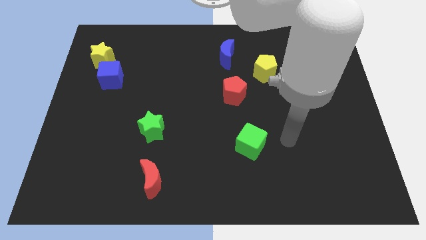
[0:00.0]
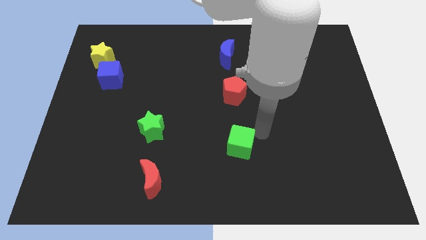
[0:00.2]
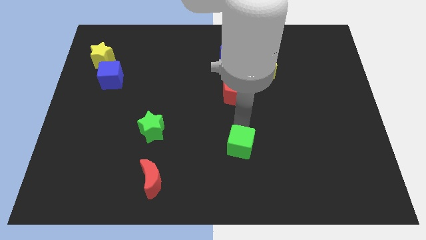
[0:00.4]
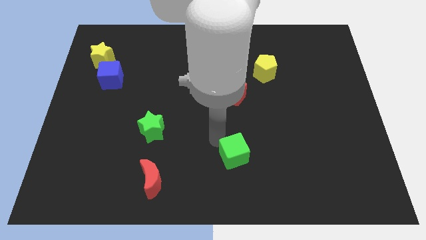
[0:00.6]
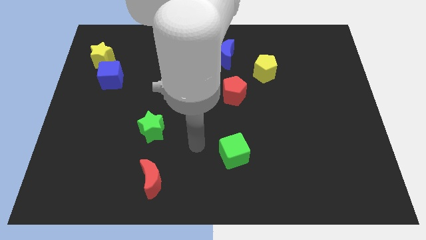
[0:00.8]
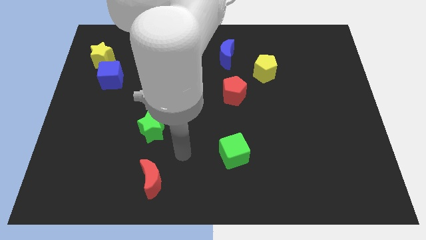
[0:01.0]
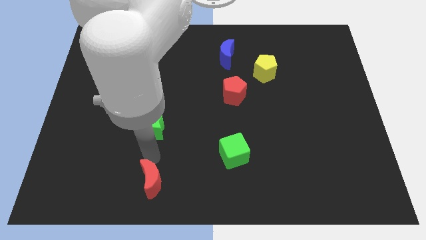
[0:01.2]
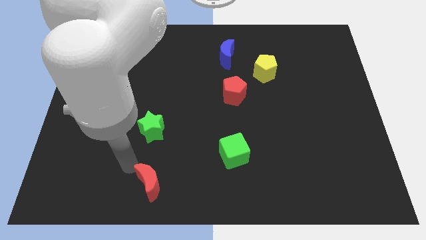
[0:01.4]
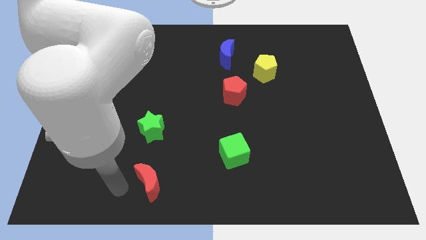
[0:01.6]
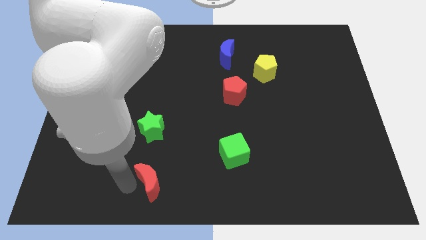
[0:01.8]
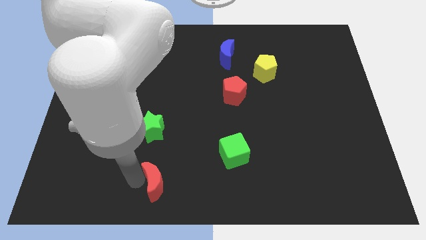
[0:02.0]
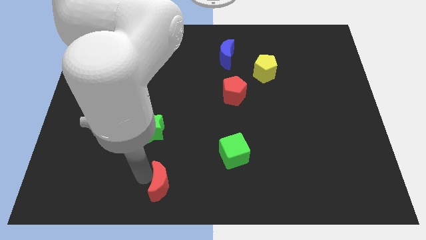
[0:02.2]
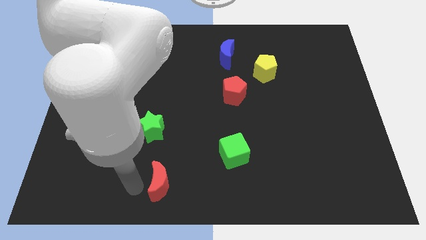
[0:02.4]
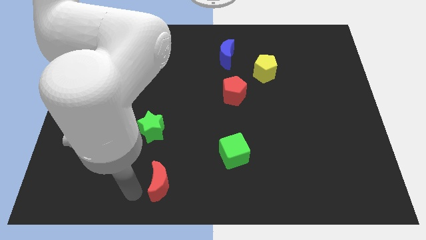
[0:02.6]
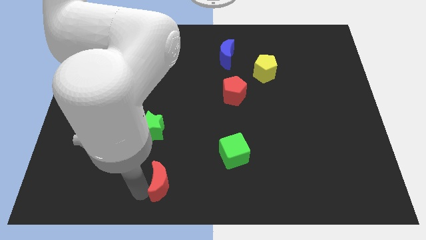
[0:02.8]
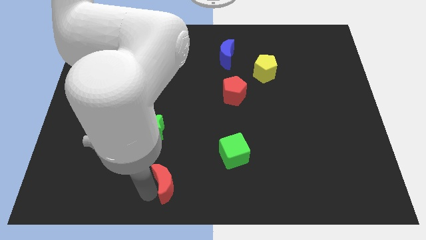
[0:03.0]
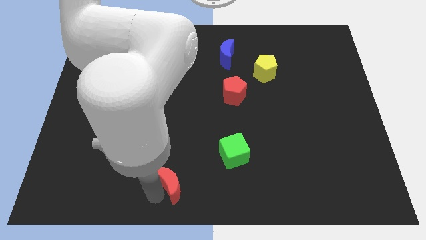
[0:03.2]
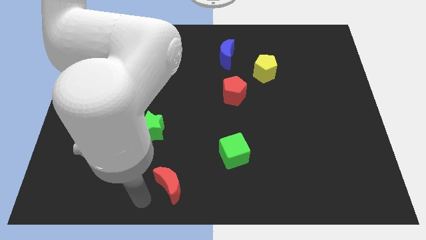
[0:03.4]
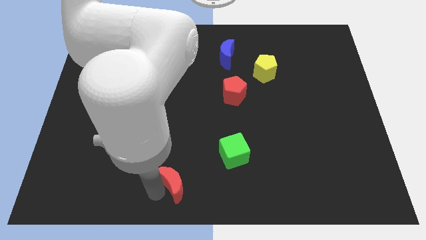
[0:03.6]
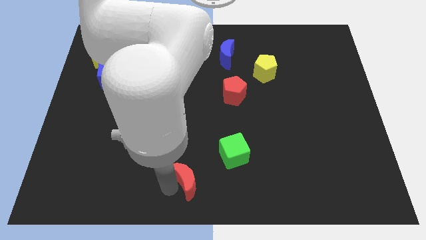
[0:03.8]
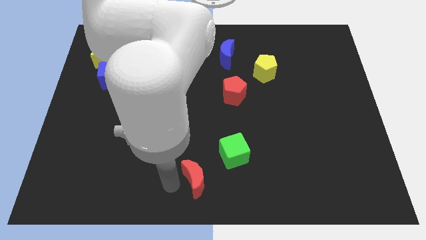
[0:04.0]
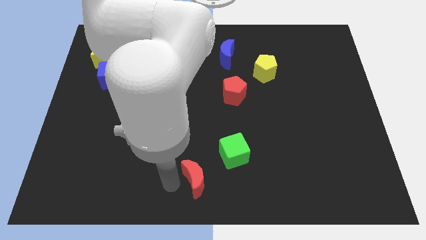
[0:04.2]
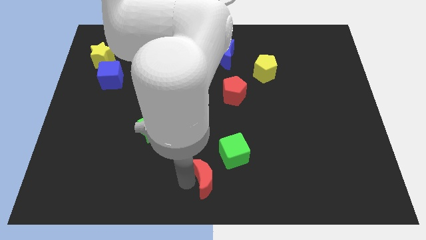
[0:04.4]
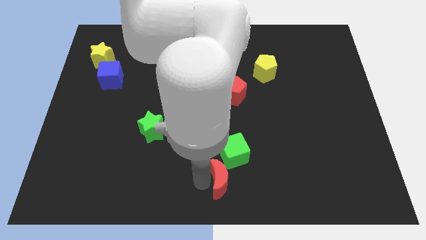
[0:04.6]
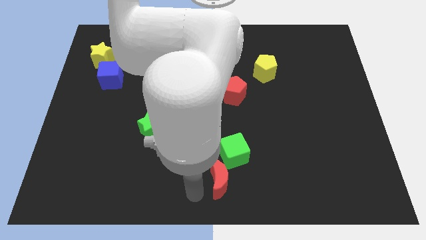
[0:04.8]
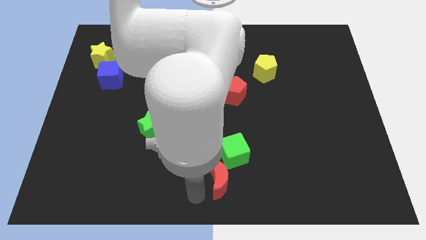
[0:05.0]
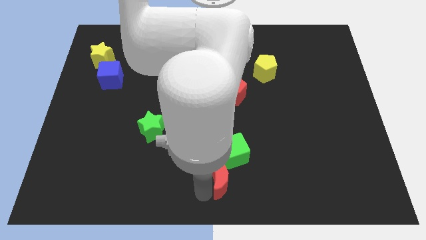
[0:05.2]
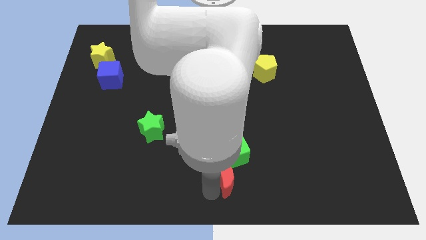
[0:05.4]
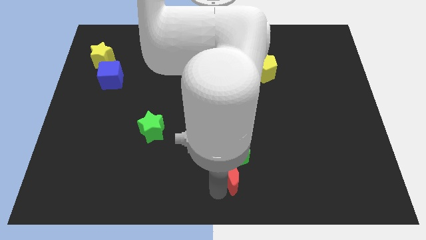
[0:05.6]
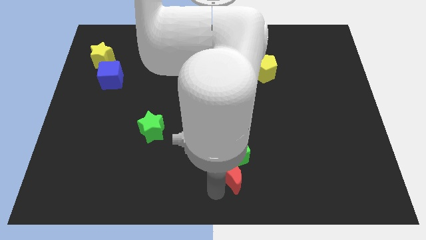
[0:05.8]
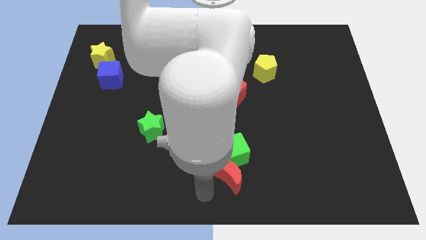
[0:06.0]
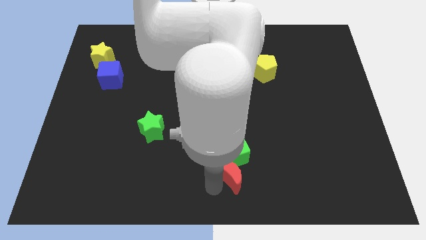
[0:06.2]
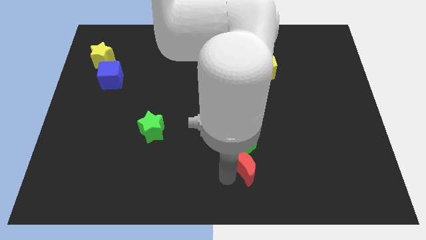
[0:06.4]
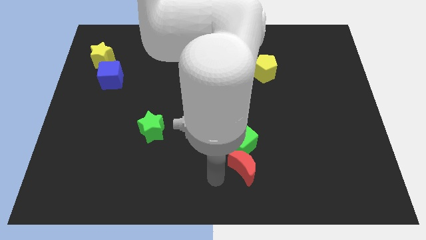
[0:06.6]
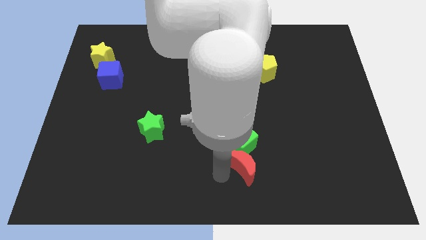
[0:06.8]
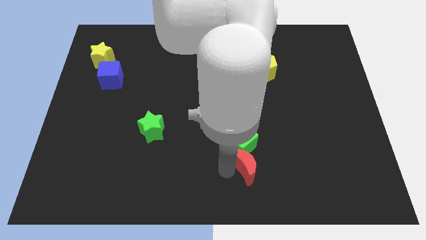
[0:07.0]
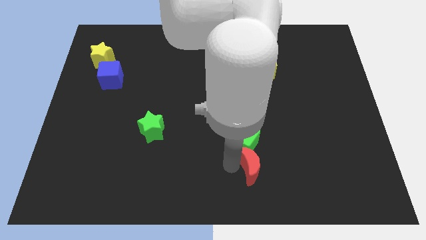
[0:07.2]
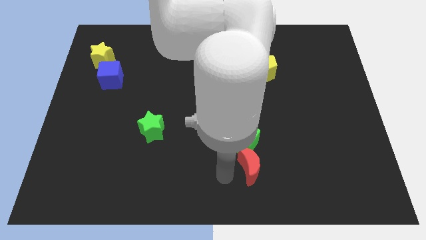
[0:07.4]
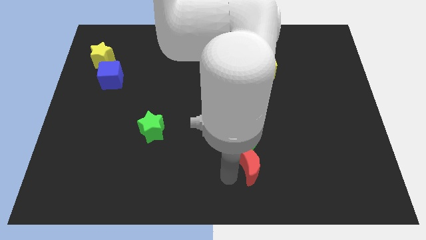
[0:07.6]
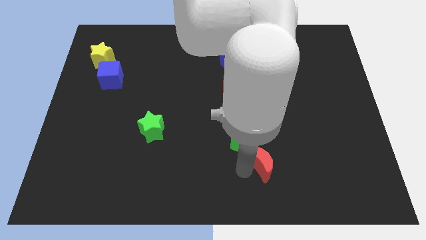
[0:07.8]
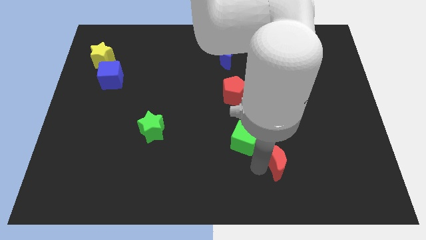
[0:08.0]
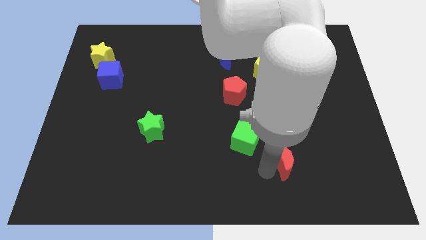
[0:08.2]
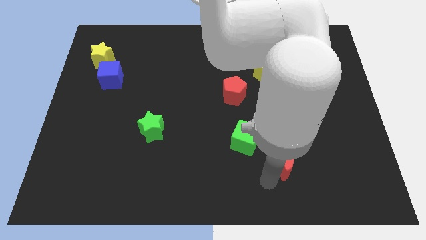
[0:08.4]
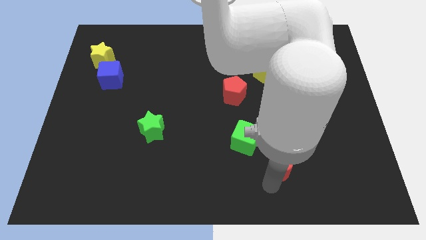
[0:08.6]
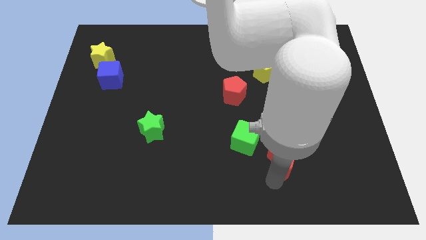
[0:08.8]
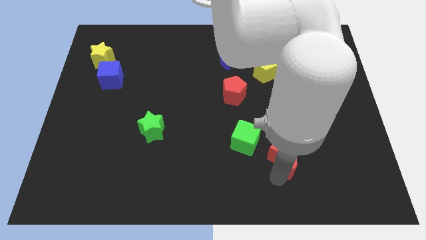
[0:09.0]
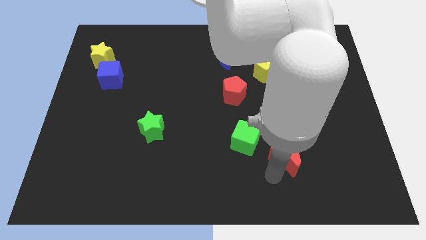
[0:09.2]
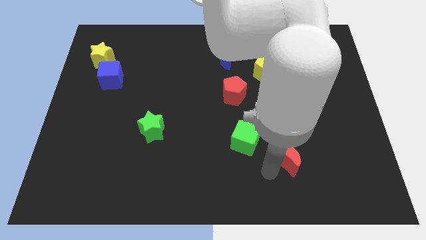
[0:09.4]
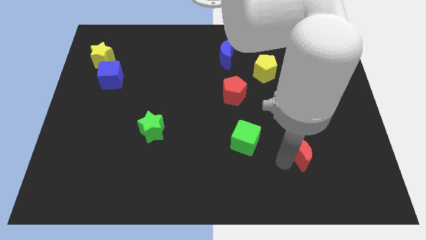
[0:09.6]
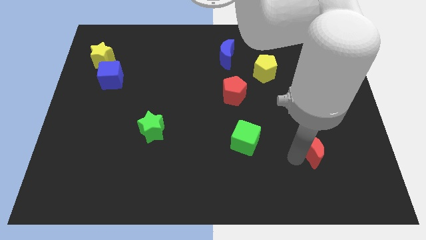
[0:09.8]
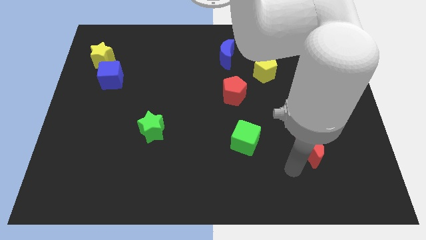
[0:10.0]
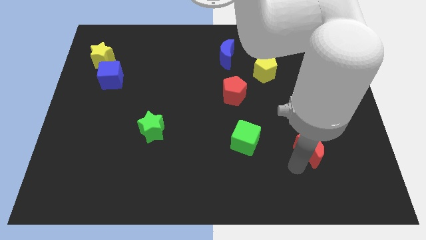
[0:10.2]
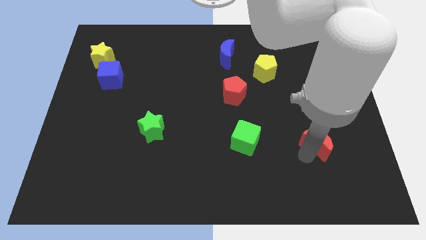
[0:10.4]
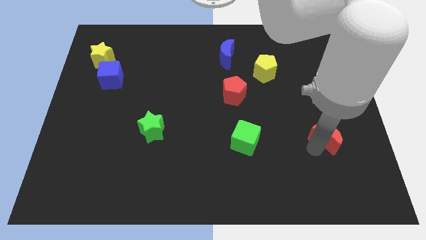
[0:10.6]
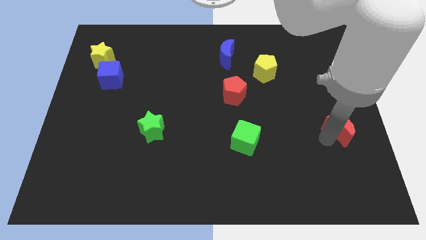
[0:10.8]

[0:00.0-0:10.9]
push the red moon to the right side

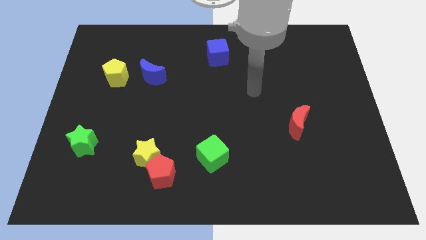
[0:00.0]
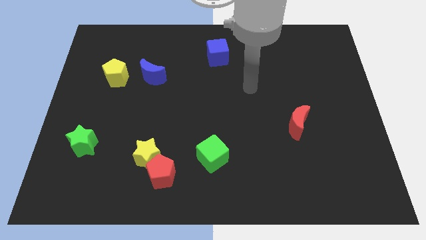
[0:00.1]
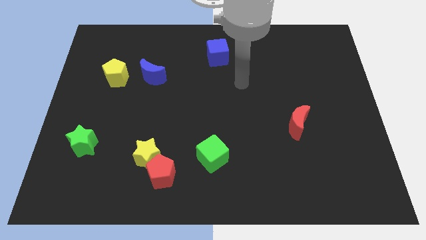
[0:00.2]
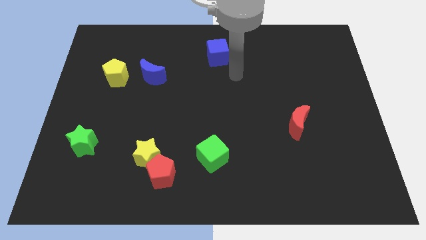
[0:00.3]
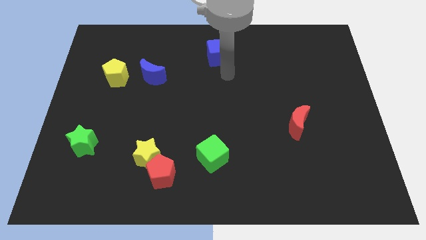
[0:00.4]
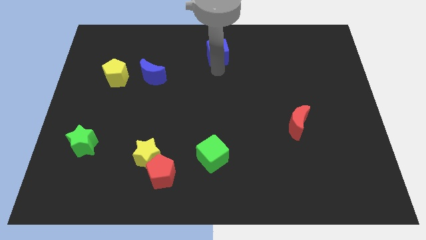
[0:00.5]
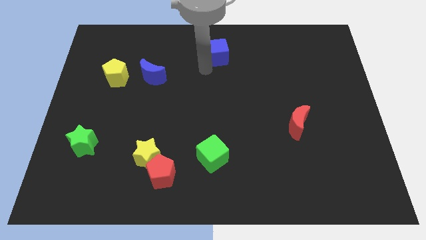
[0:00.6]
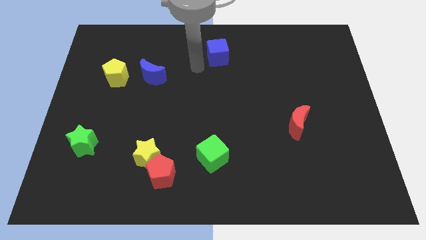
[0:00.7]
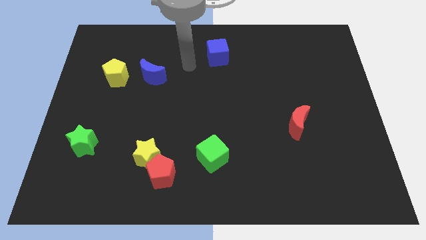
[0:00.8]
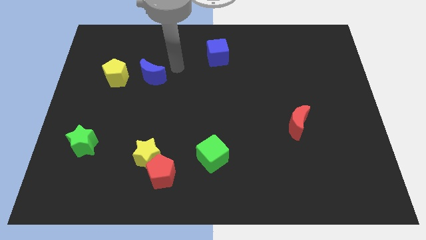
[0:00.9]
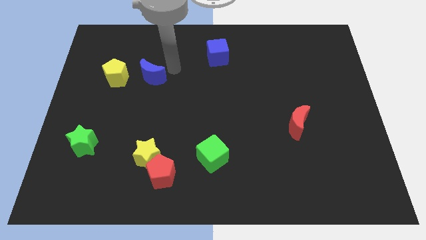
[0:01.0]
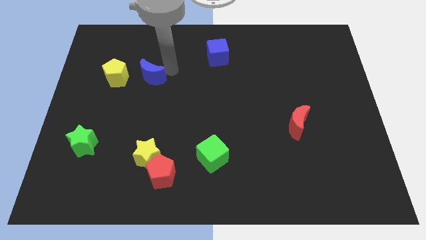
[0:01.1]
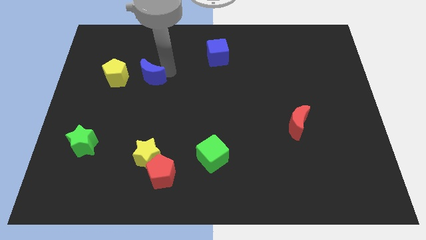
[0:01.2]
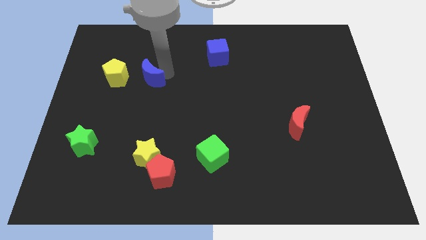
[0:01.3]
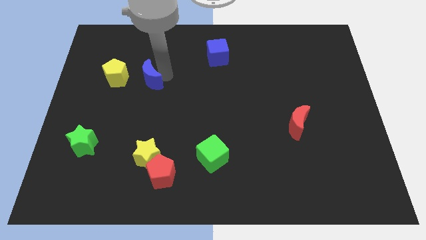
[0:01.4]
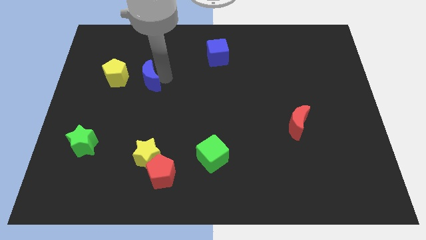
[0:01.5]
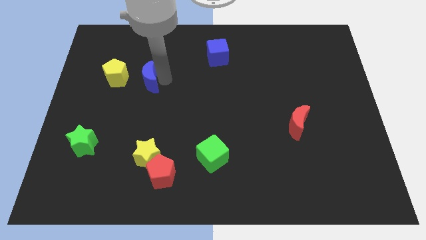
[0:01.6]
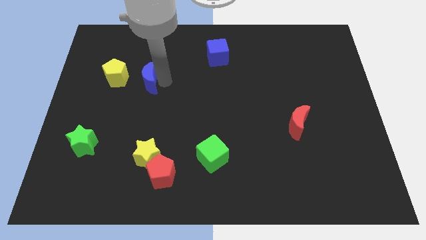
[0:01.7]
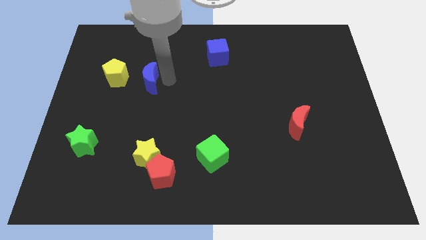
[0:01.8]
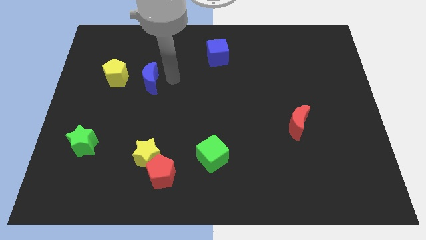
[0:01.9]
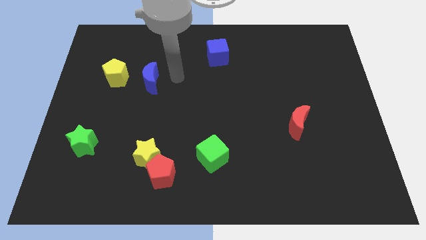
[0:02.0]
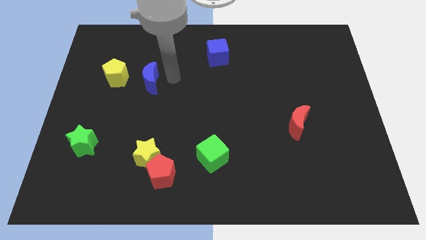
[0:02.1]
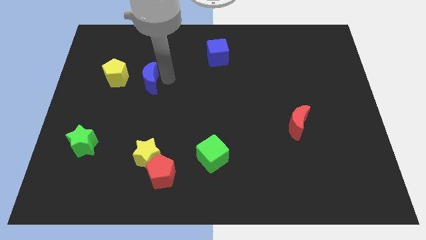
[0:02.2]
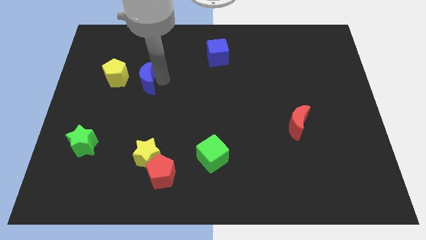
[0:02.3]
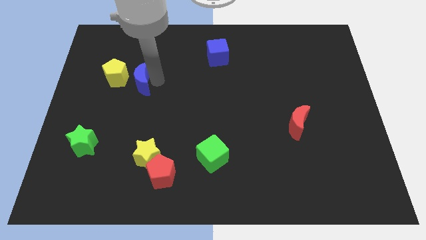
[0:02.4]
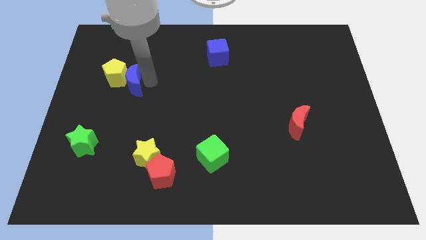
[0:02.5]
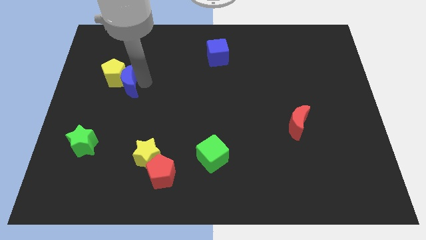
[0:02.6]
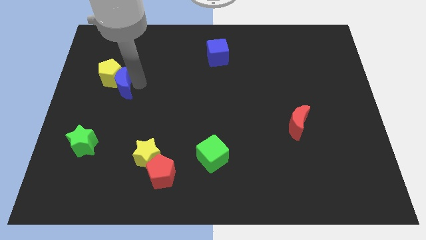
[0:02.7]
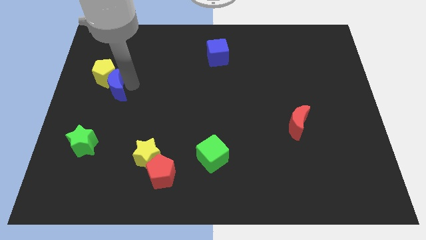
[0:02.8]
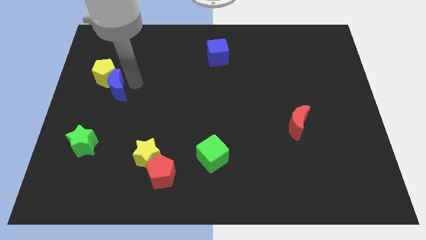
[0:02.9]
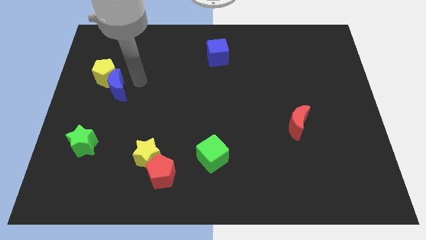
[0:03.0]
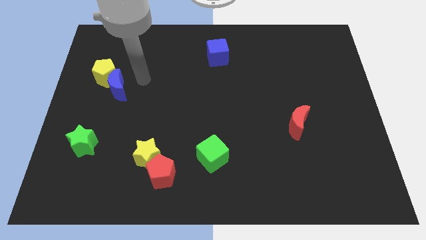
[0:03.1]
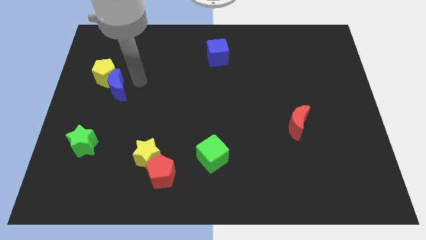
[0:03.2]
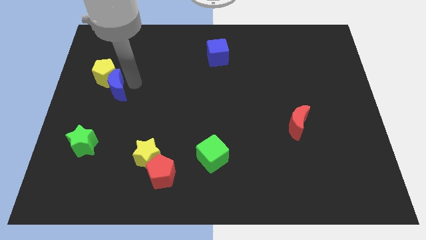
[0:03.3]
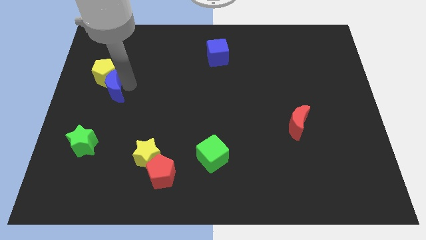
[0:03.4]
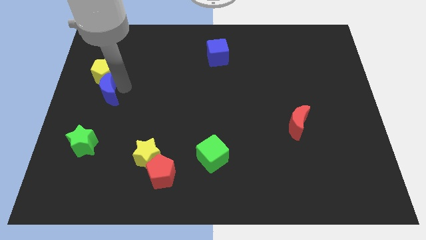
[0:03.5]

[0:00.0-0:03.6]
move the blue moon to the left side
